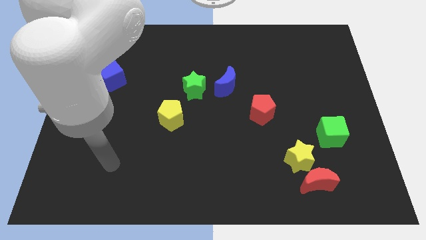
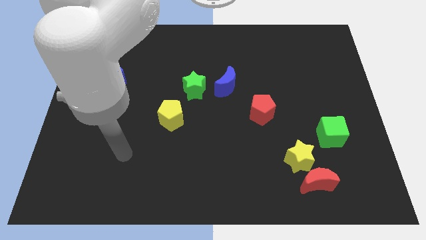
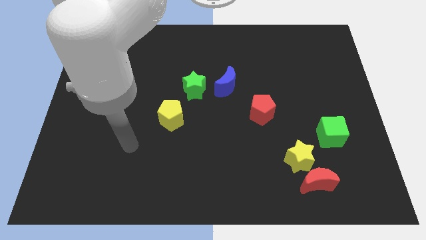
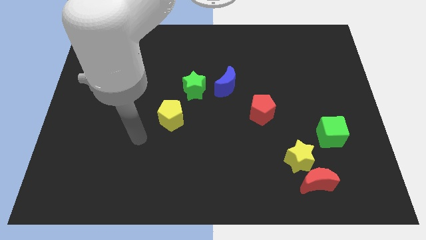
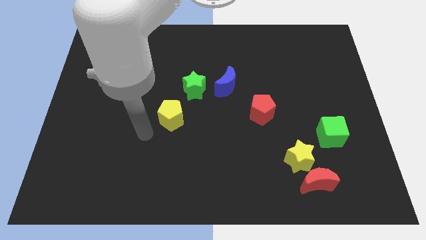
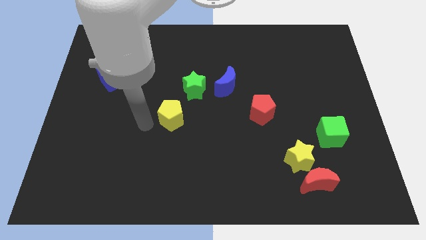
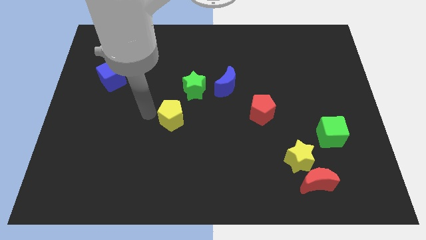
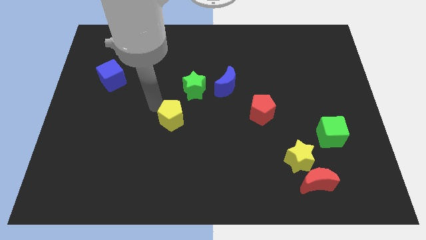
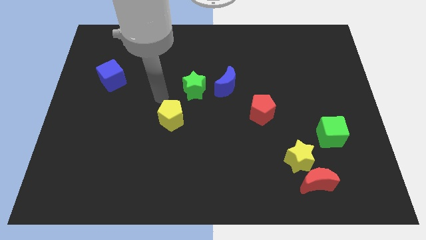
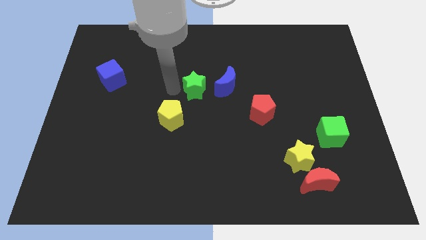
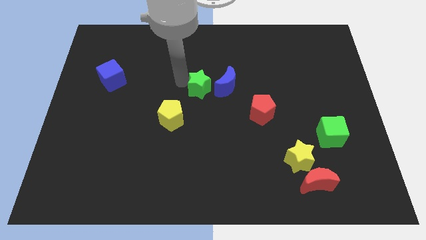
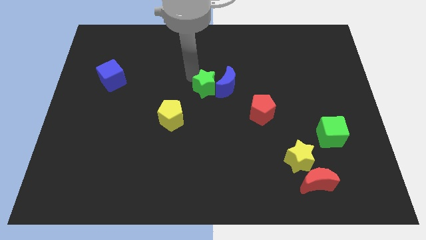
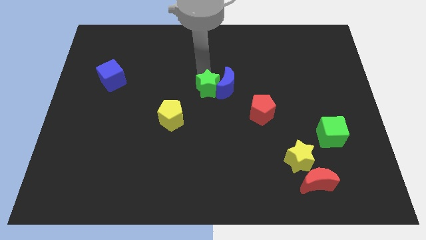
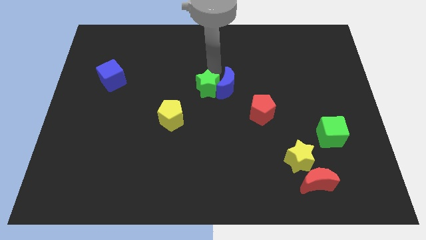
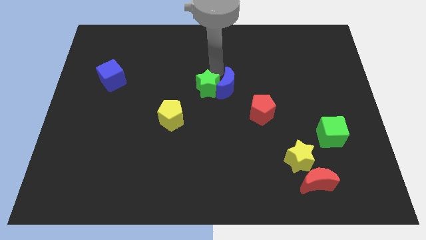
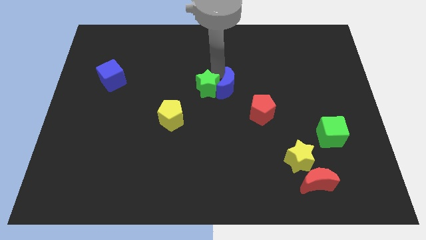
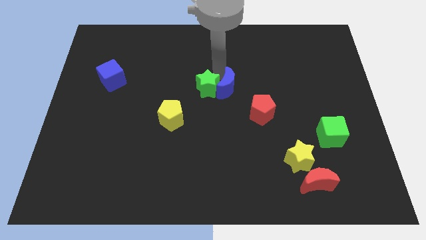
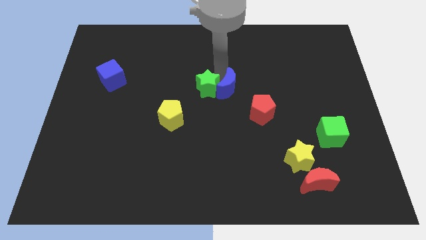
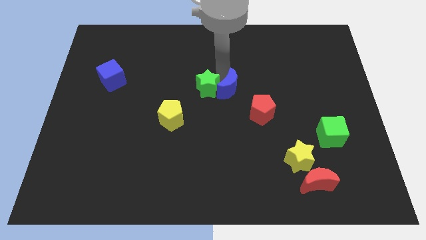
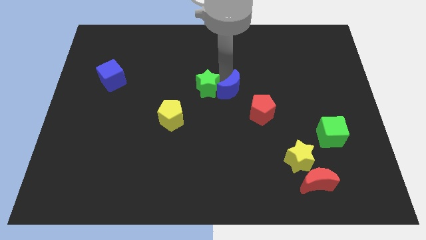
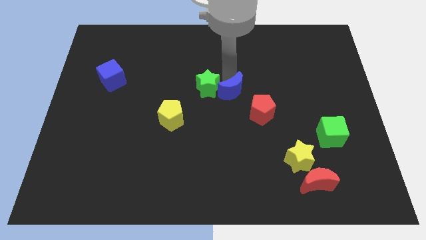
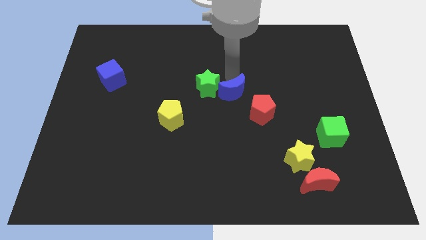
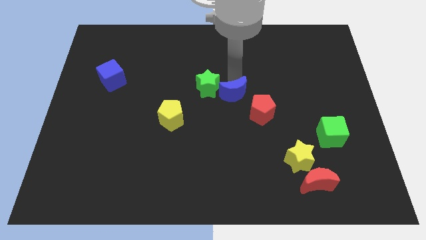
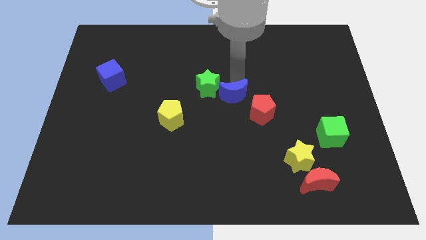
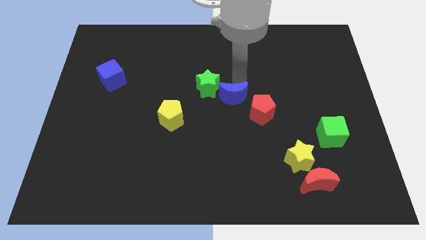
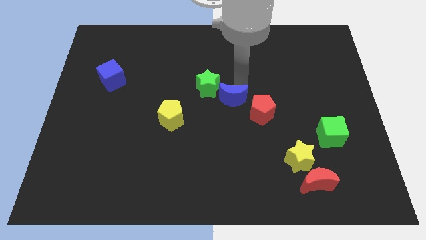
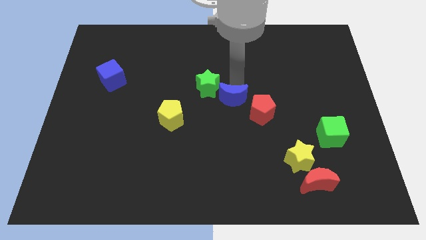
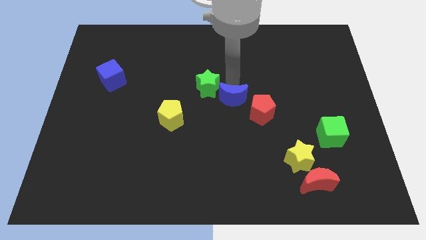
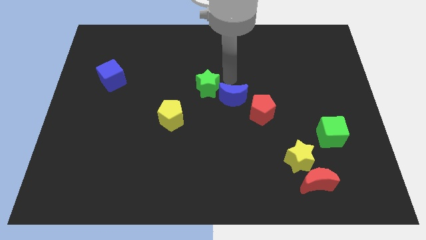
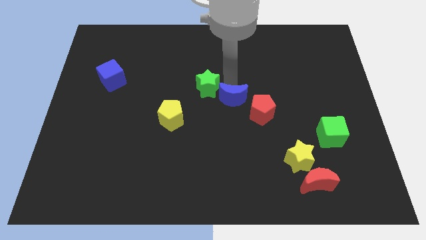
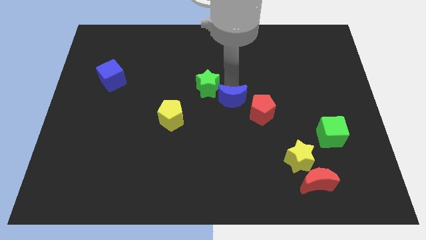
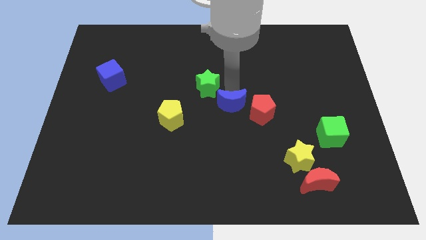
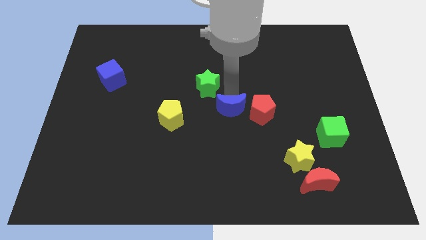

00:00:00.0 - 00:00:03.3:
push the blue moon slightly downwards

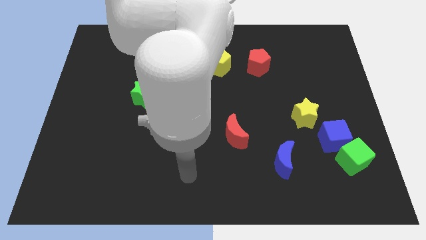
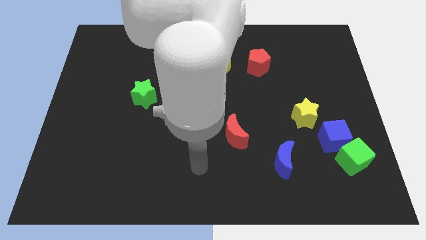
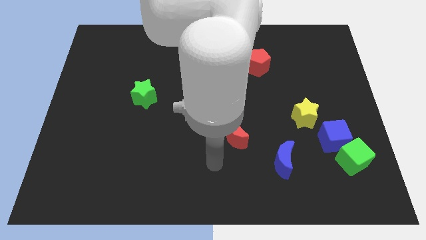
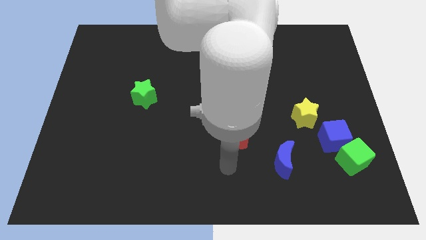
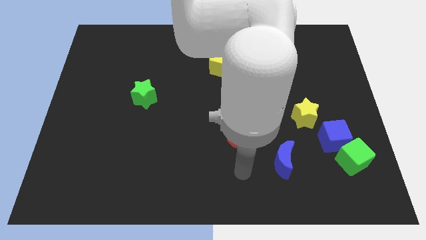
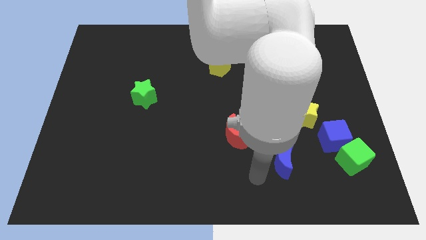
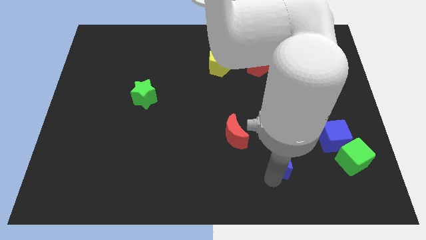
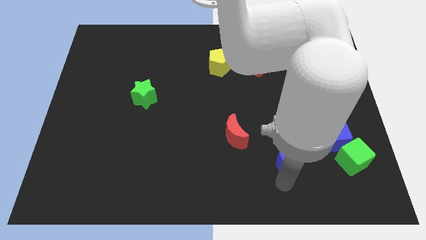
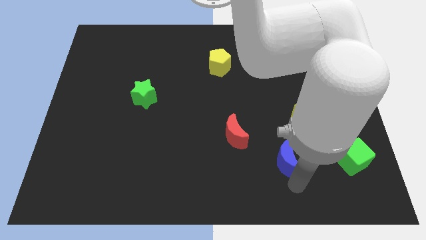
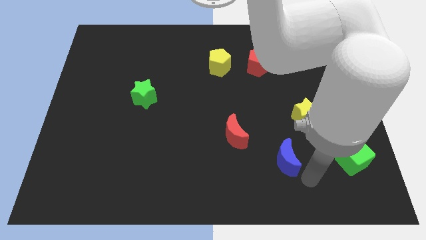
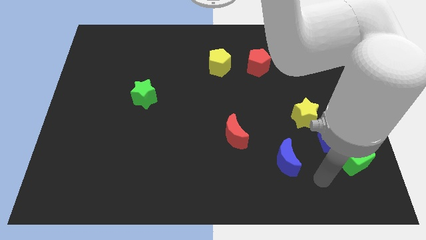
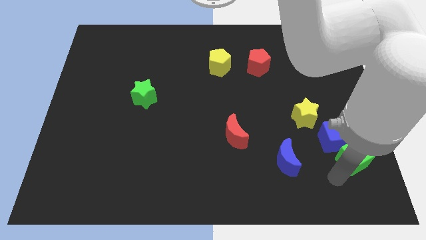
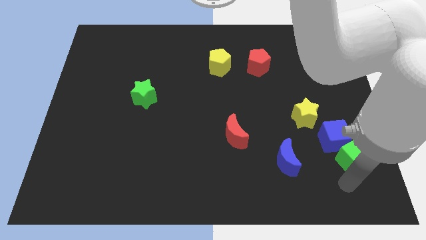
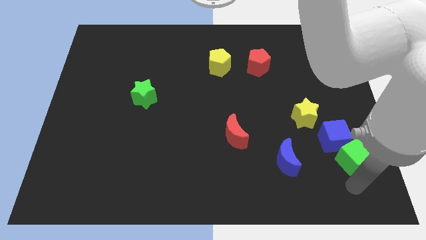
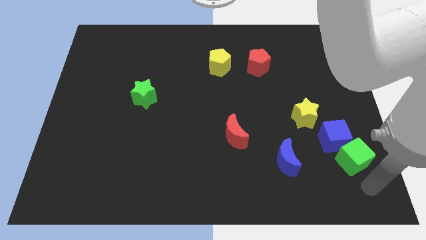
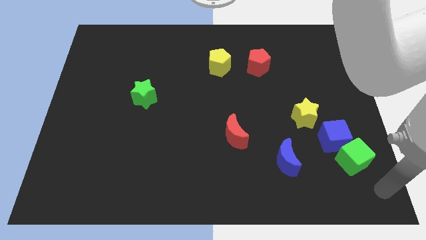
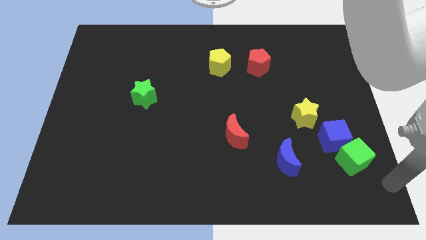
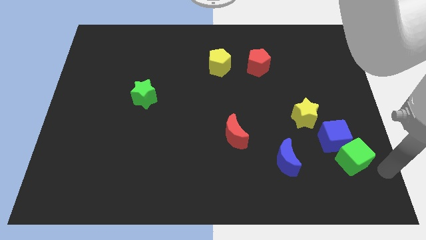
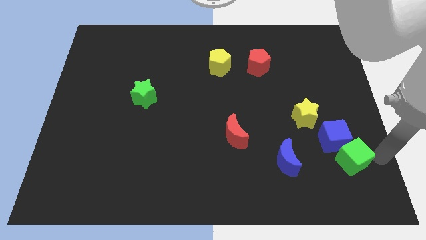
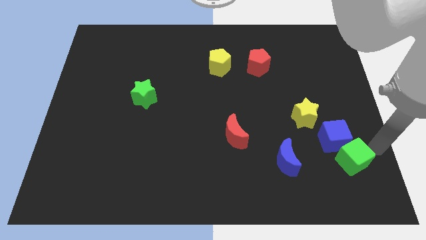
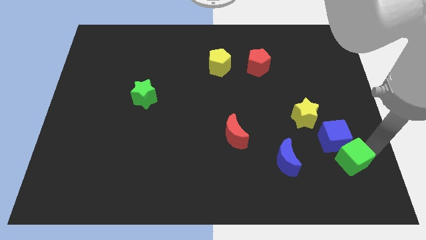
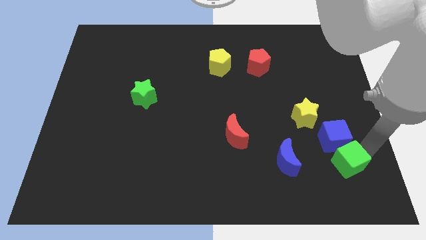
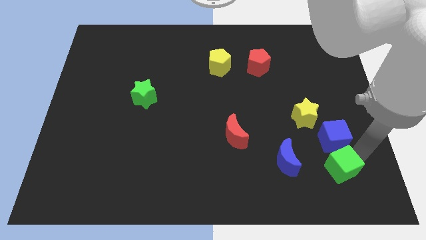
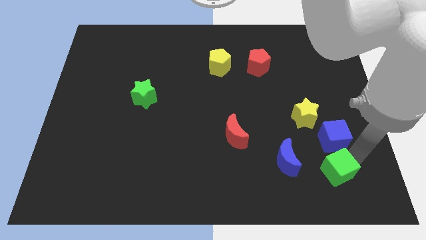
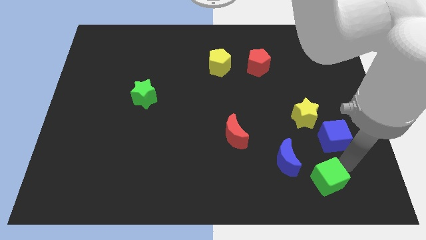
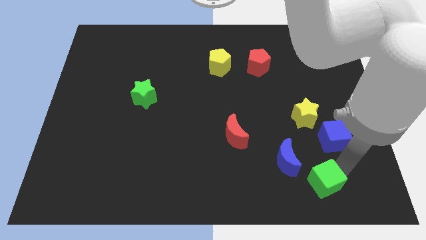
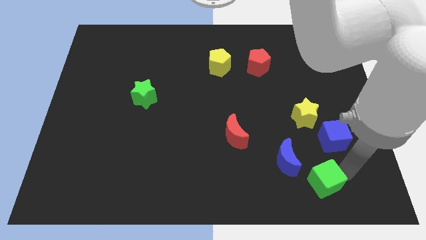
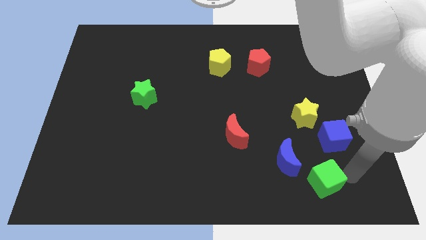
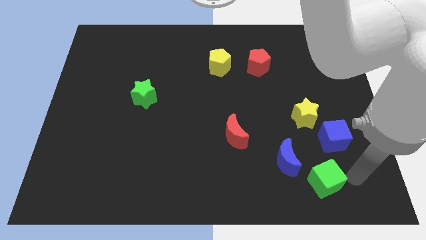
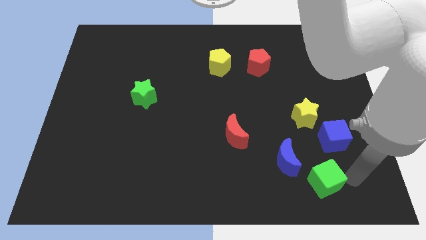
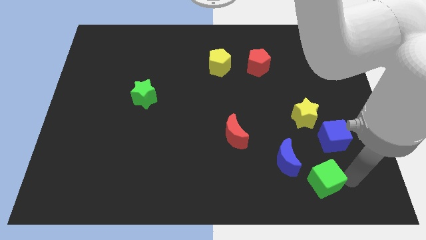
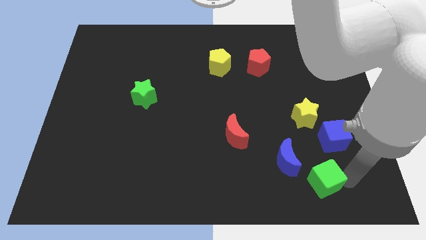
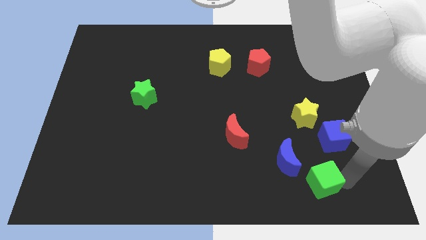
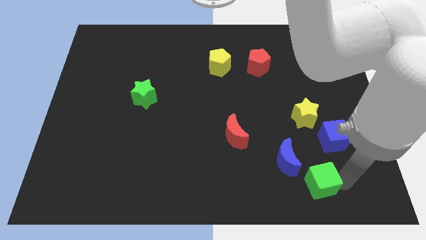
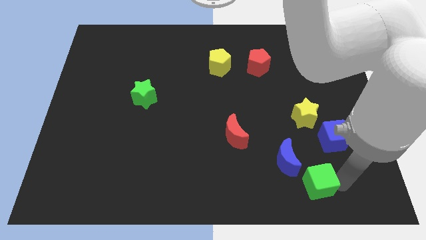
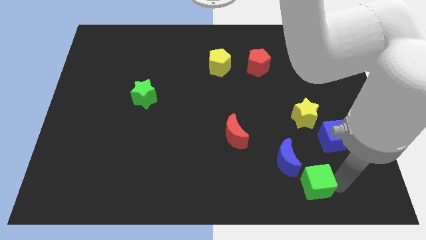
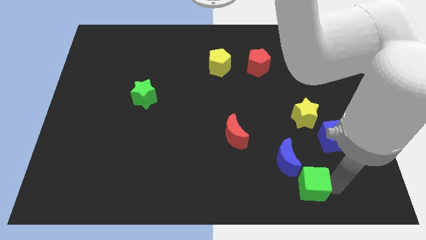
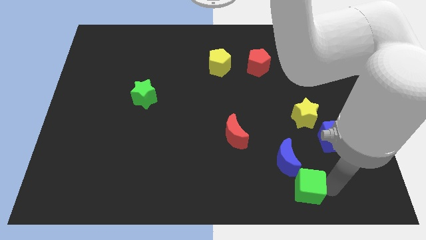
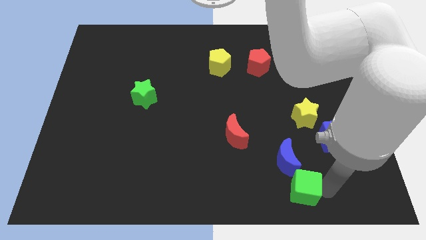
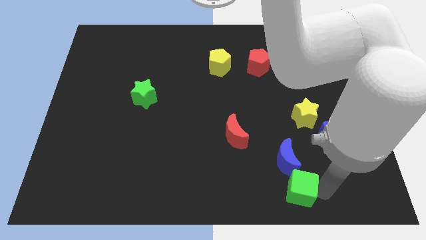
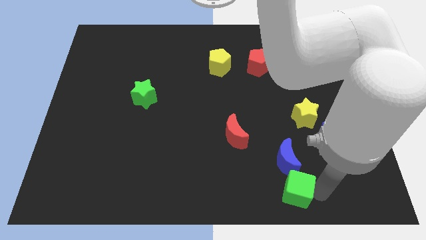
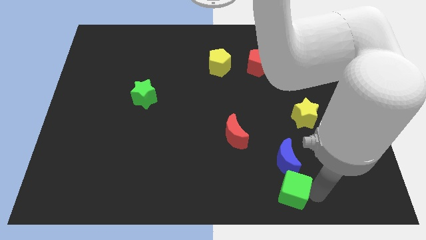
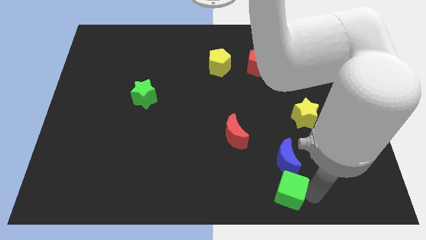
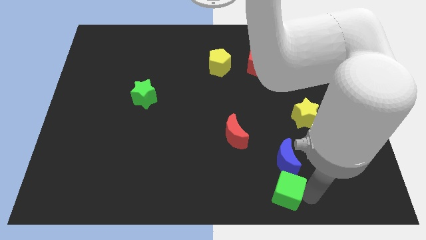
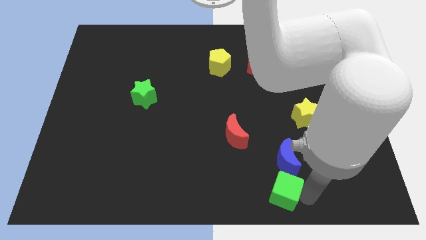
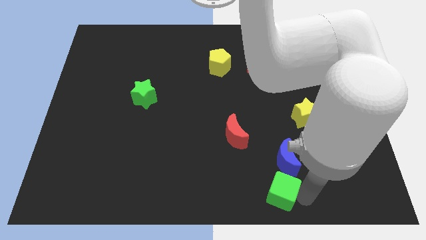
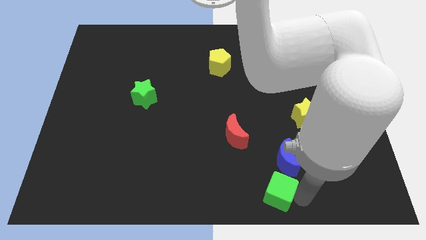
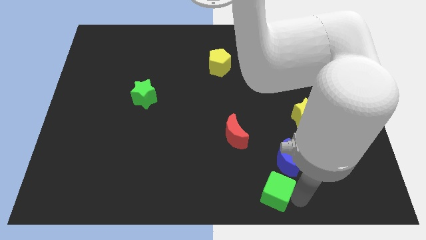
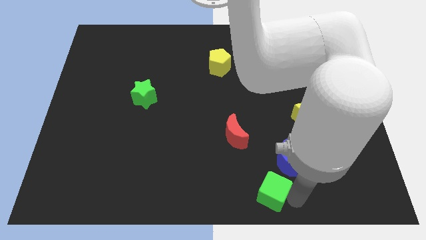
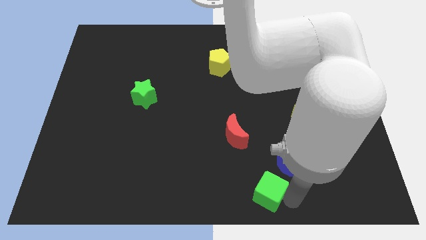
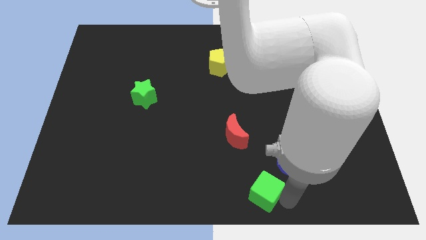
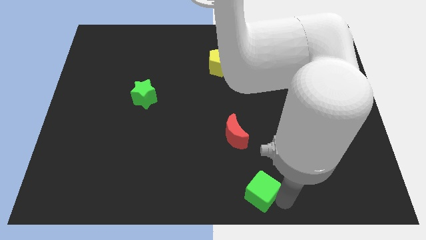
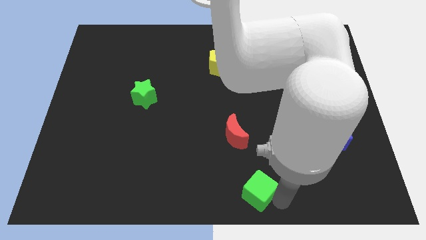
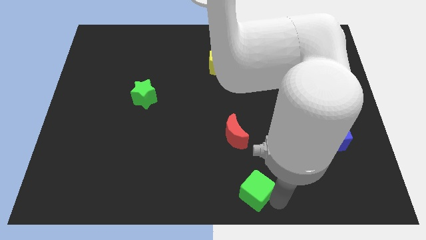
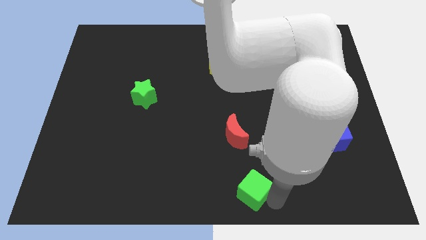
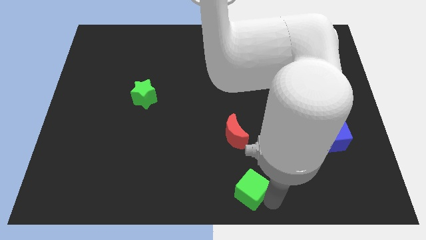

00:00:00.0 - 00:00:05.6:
move the green cube left
